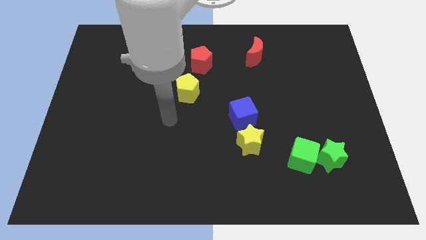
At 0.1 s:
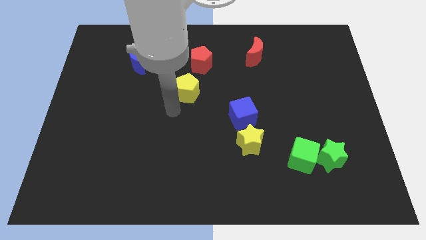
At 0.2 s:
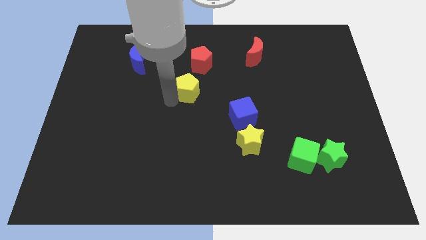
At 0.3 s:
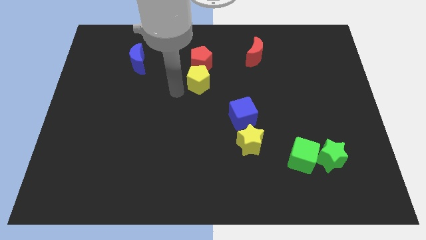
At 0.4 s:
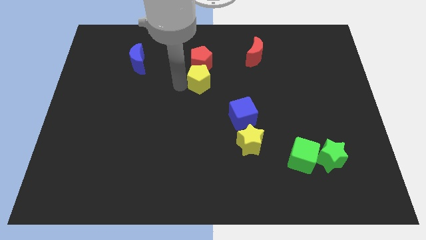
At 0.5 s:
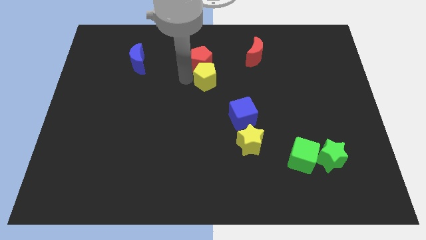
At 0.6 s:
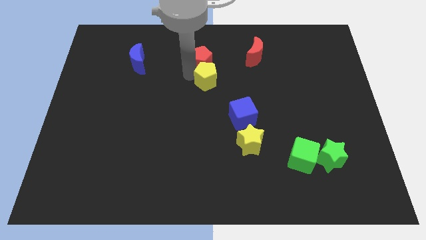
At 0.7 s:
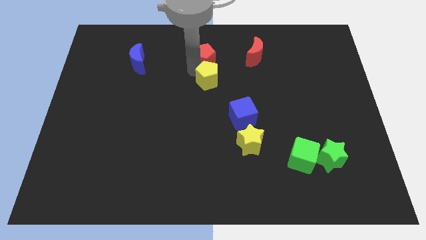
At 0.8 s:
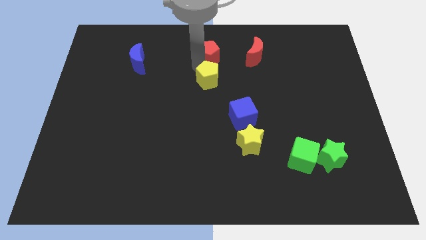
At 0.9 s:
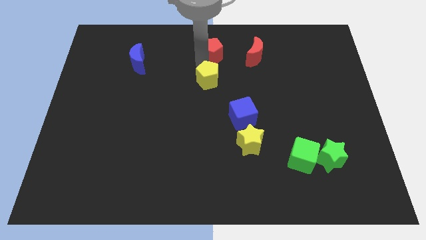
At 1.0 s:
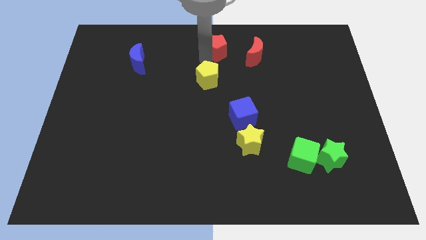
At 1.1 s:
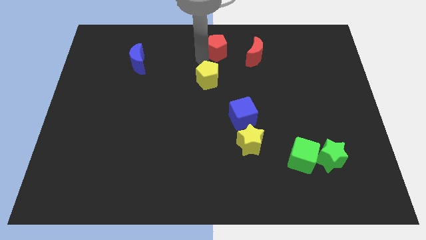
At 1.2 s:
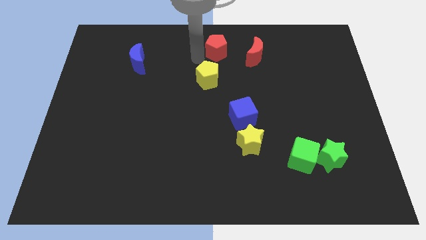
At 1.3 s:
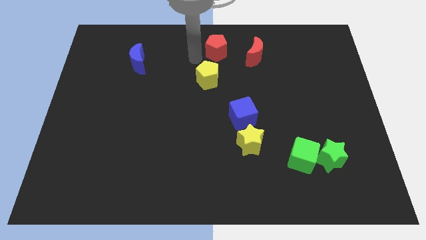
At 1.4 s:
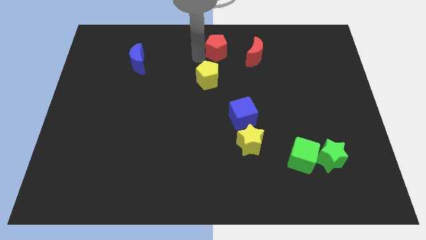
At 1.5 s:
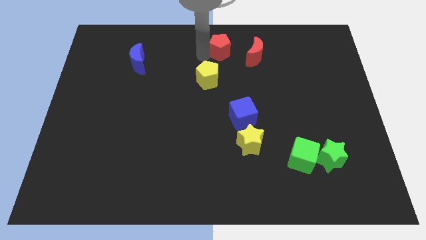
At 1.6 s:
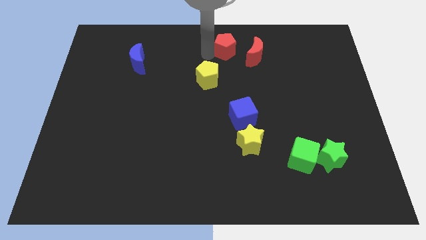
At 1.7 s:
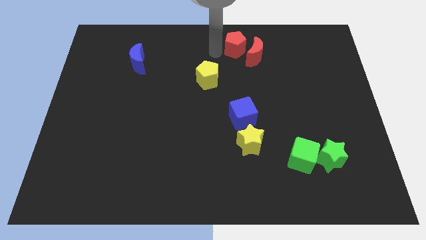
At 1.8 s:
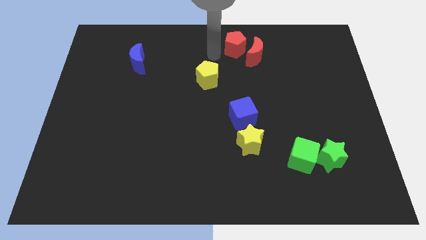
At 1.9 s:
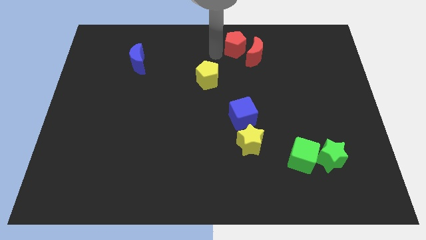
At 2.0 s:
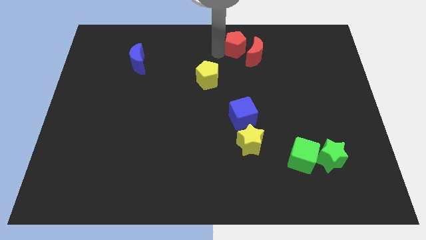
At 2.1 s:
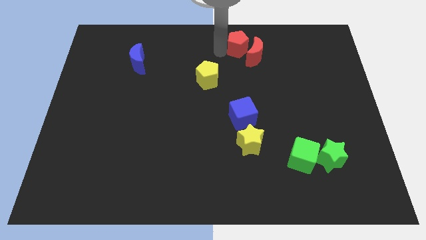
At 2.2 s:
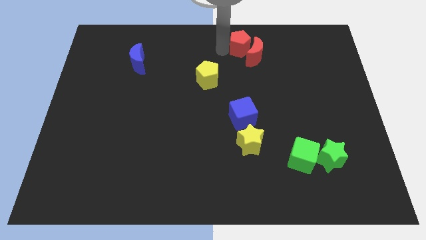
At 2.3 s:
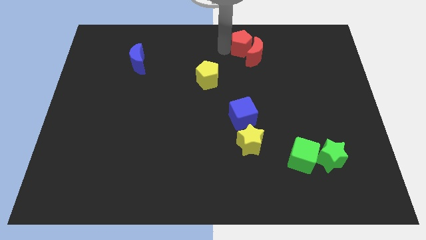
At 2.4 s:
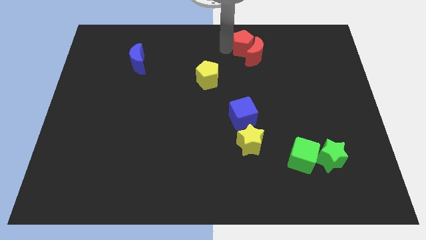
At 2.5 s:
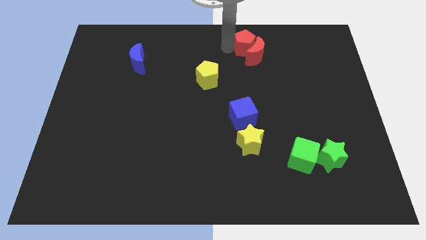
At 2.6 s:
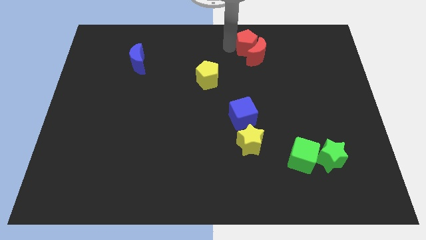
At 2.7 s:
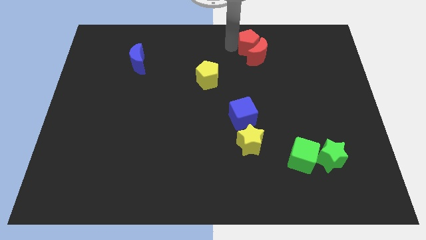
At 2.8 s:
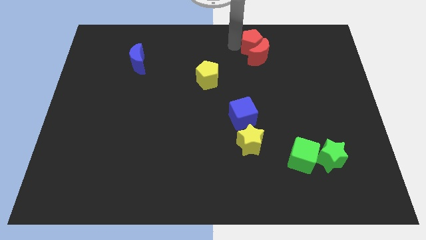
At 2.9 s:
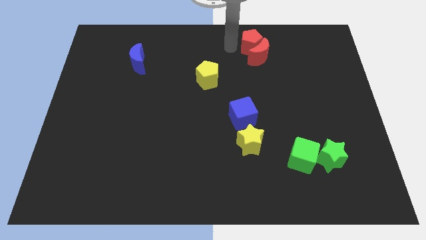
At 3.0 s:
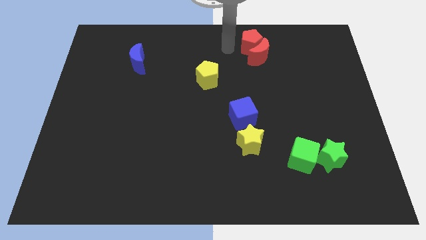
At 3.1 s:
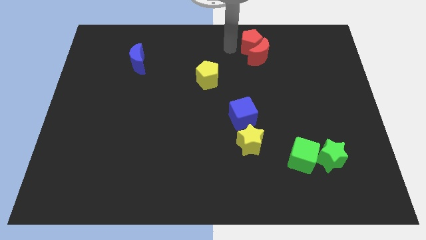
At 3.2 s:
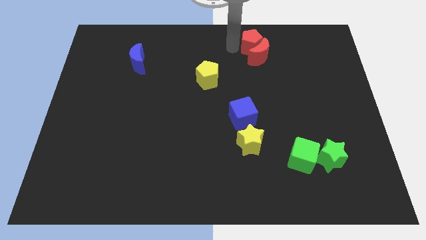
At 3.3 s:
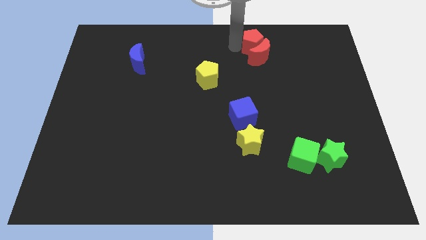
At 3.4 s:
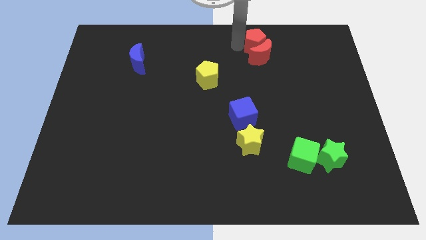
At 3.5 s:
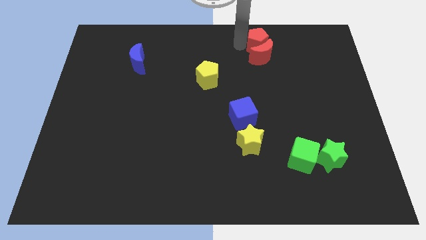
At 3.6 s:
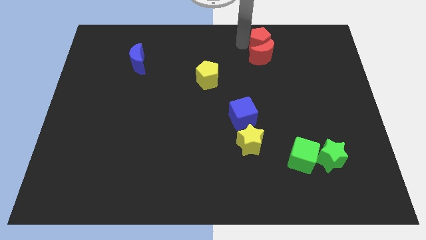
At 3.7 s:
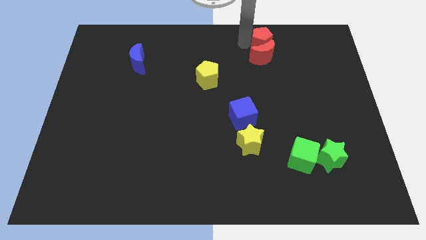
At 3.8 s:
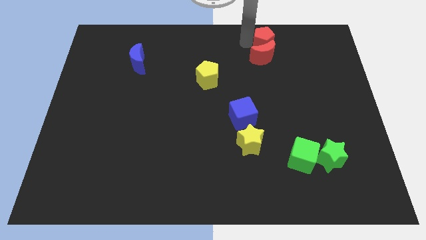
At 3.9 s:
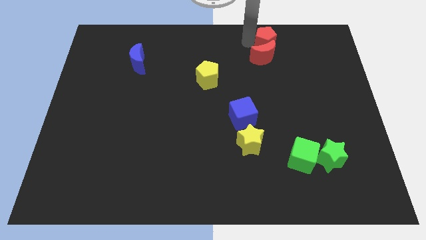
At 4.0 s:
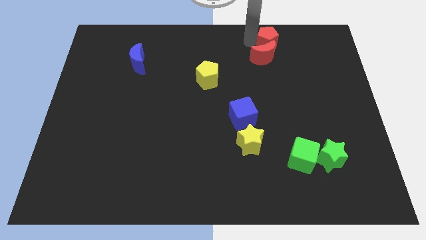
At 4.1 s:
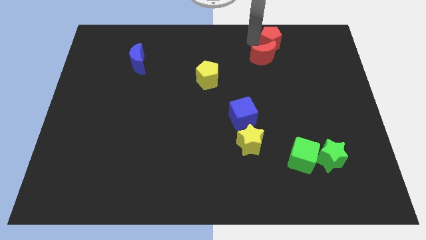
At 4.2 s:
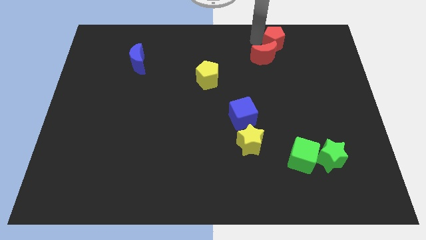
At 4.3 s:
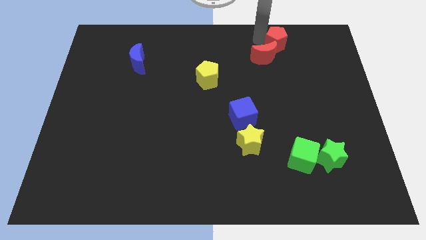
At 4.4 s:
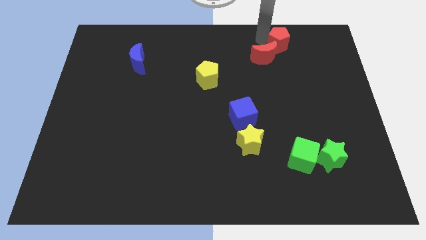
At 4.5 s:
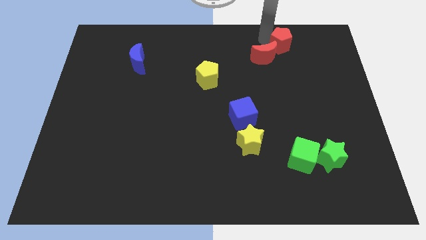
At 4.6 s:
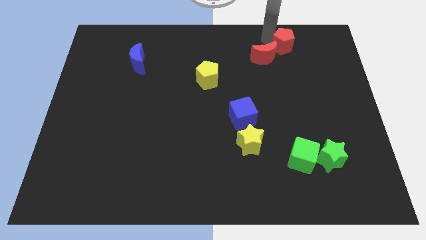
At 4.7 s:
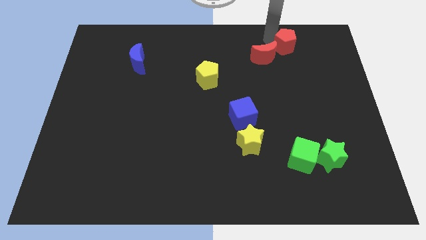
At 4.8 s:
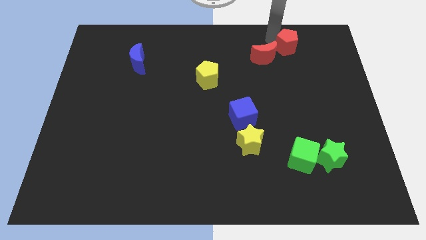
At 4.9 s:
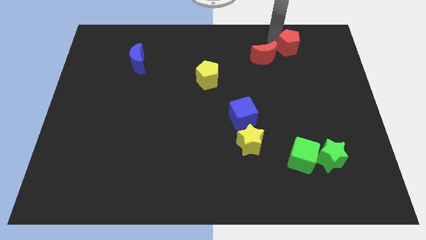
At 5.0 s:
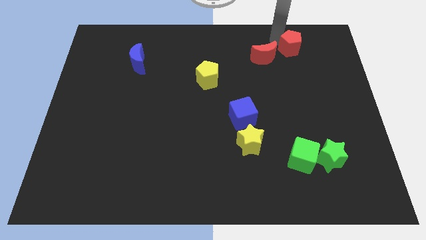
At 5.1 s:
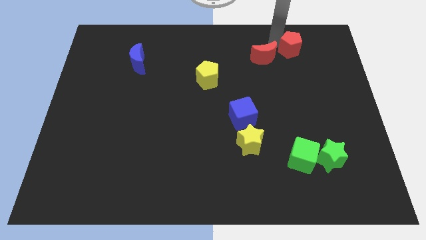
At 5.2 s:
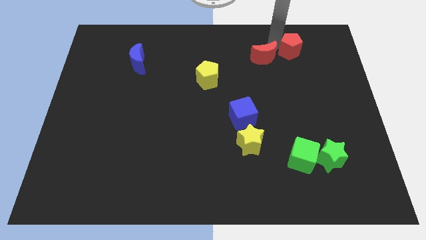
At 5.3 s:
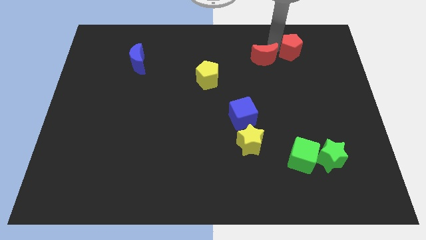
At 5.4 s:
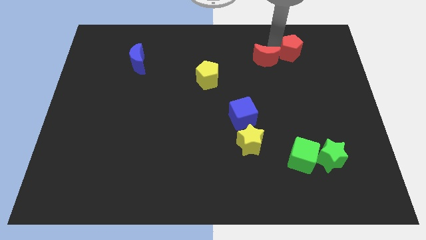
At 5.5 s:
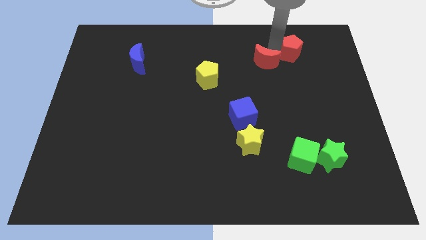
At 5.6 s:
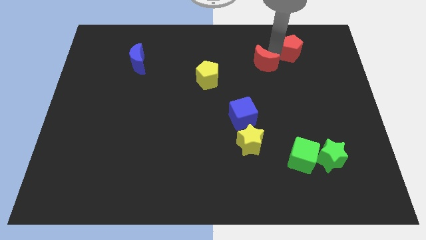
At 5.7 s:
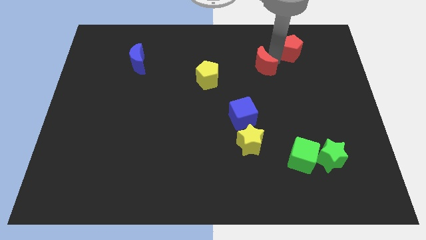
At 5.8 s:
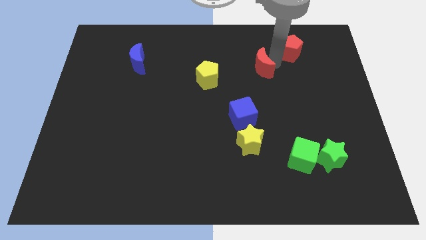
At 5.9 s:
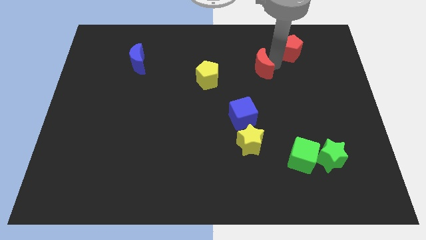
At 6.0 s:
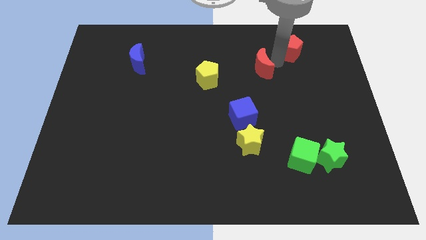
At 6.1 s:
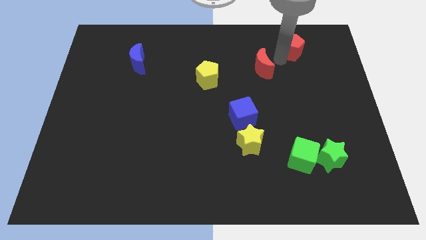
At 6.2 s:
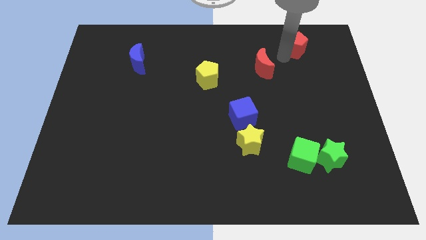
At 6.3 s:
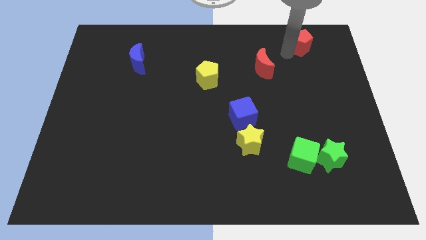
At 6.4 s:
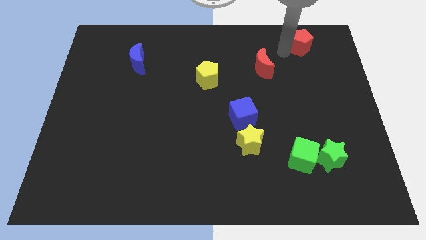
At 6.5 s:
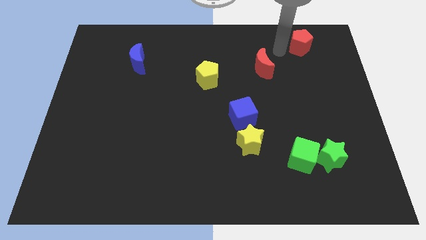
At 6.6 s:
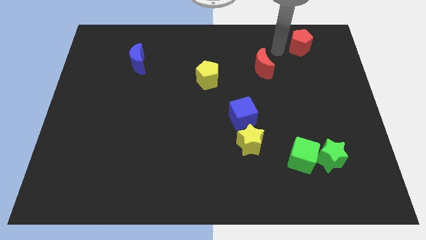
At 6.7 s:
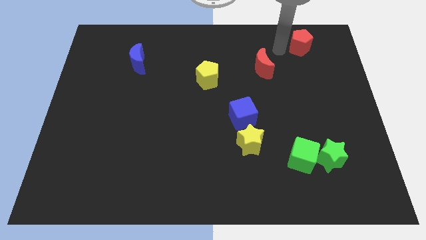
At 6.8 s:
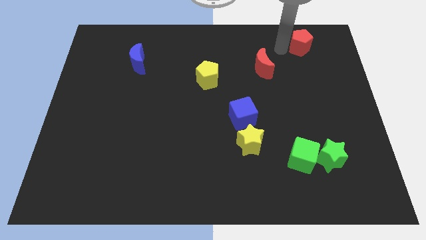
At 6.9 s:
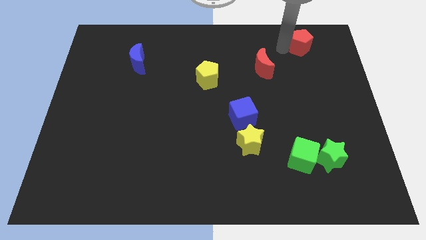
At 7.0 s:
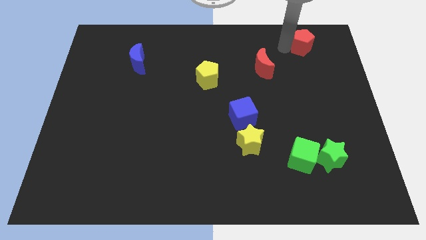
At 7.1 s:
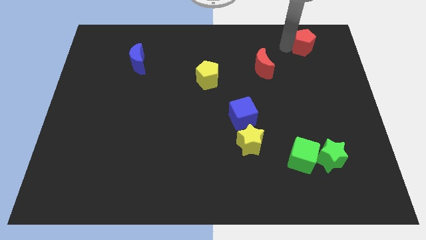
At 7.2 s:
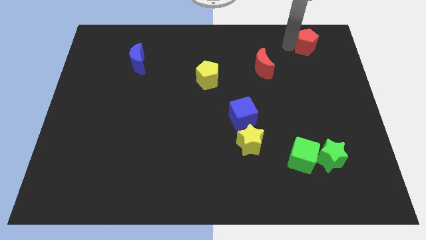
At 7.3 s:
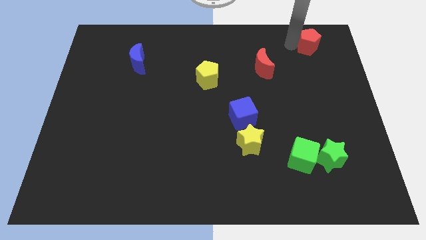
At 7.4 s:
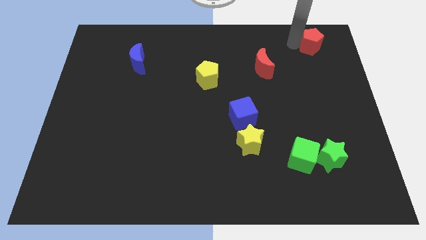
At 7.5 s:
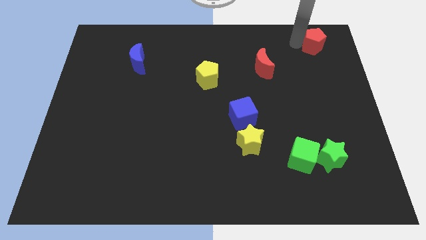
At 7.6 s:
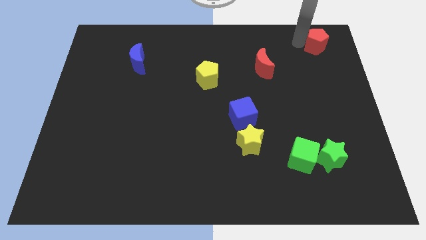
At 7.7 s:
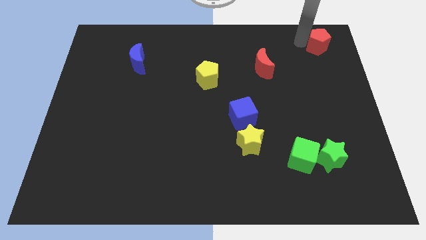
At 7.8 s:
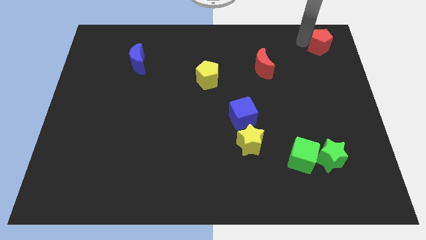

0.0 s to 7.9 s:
push the red pentagon to the top right
